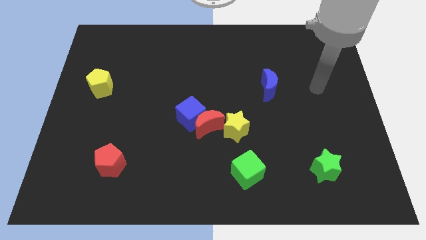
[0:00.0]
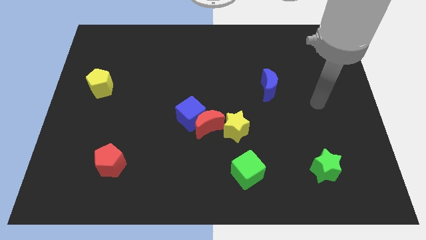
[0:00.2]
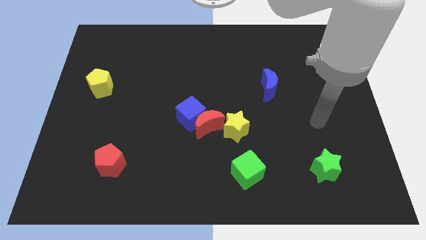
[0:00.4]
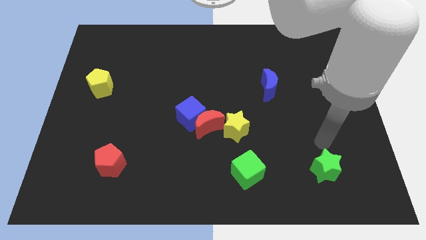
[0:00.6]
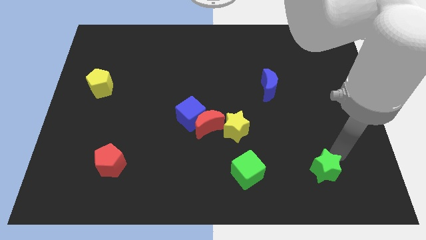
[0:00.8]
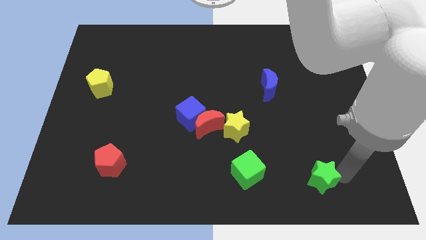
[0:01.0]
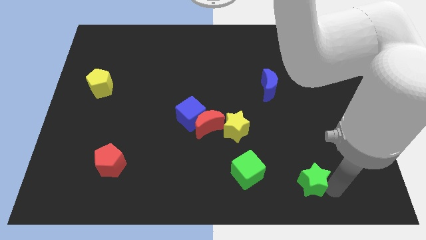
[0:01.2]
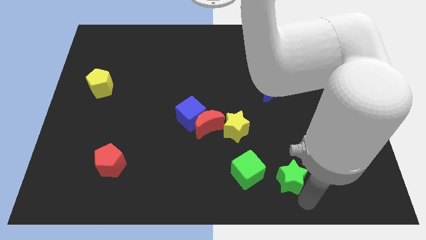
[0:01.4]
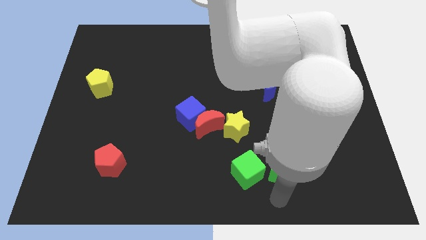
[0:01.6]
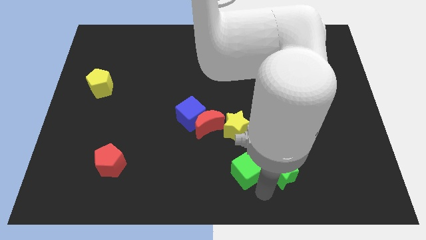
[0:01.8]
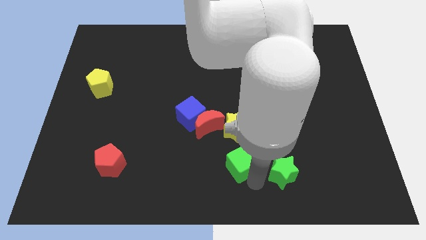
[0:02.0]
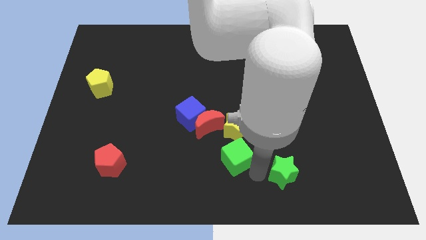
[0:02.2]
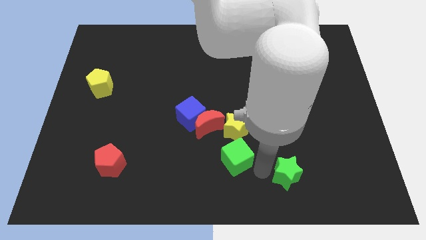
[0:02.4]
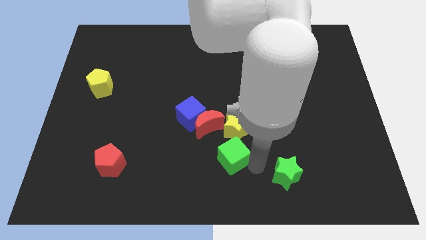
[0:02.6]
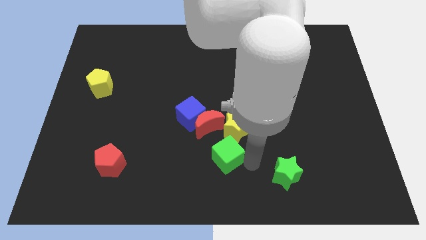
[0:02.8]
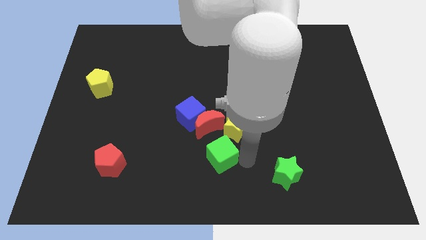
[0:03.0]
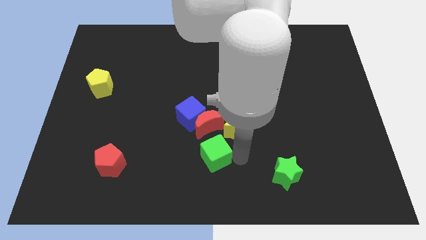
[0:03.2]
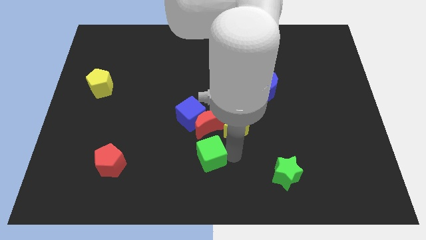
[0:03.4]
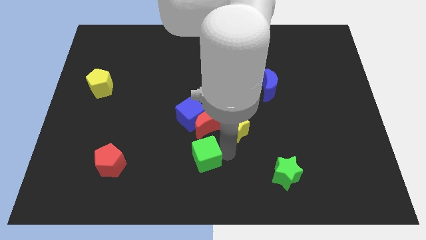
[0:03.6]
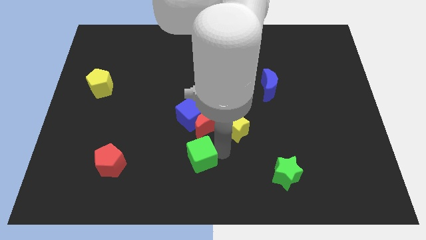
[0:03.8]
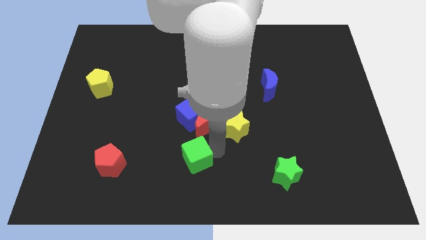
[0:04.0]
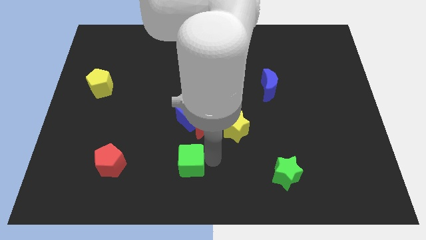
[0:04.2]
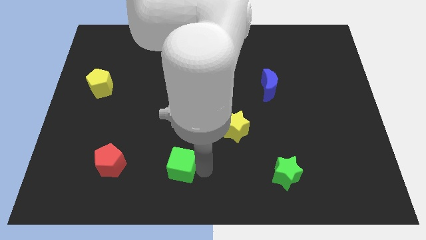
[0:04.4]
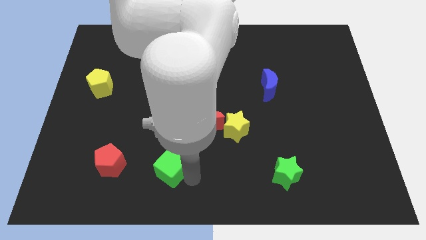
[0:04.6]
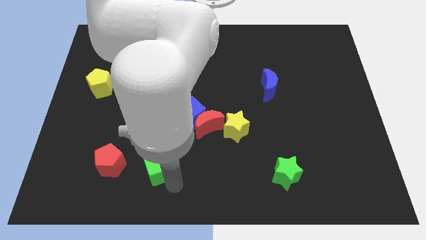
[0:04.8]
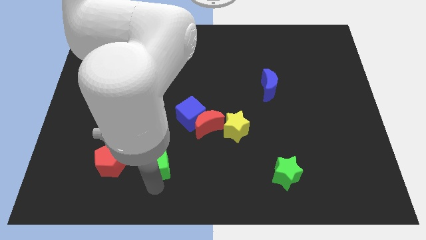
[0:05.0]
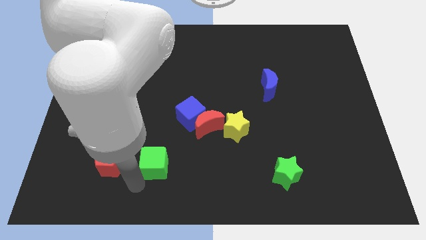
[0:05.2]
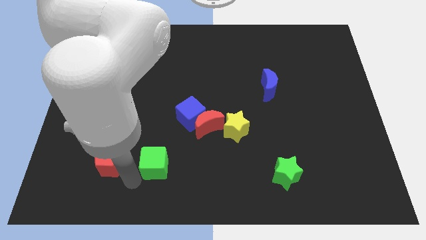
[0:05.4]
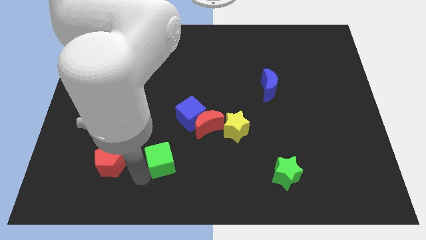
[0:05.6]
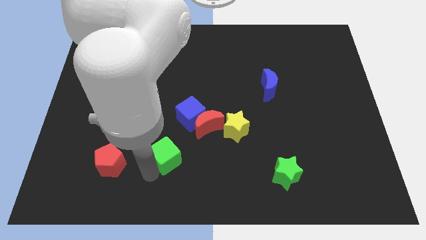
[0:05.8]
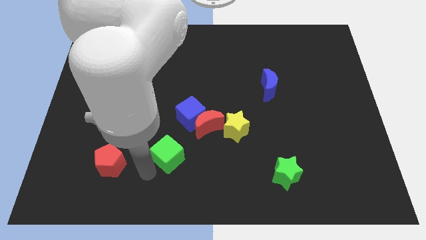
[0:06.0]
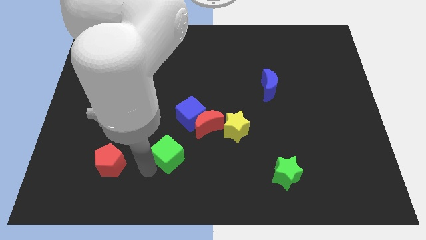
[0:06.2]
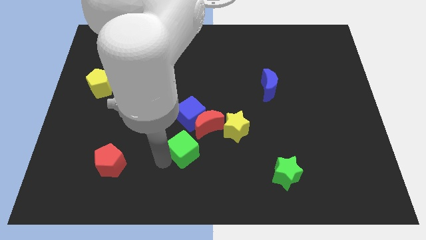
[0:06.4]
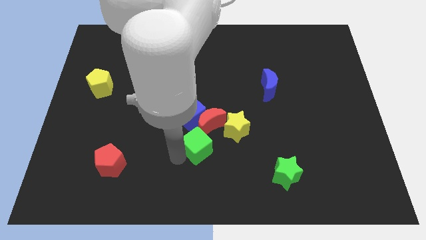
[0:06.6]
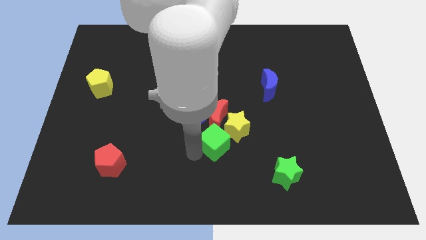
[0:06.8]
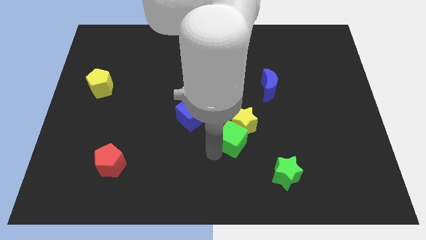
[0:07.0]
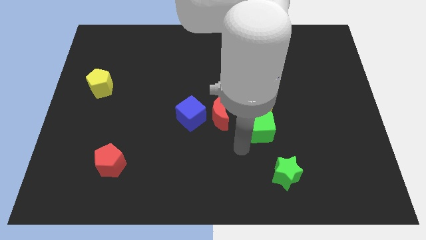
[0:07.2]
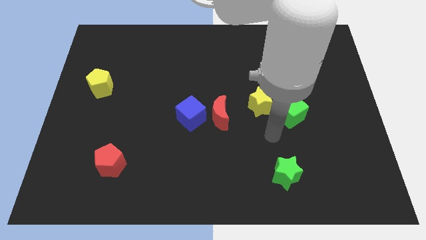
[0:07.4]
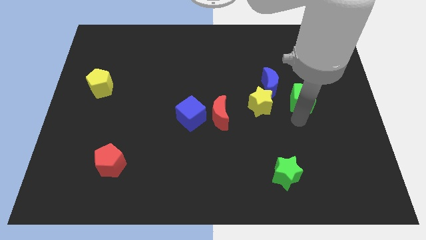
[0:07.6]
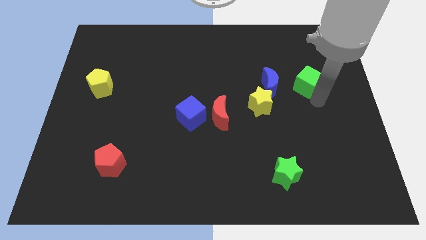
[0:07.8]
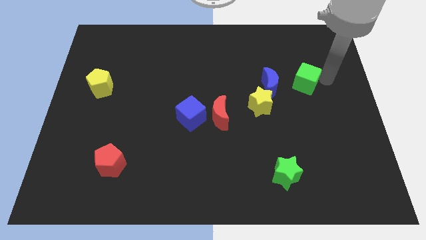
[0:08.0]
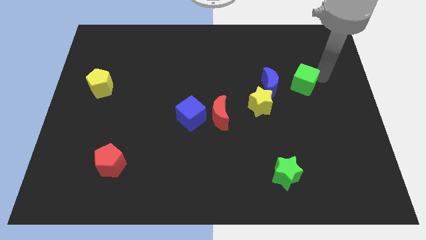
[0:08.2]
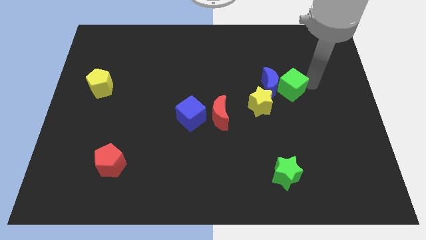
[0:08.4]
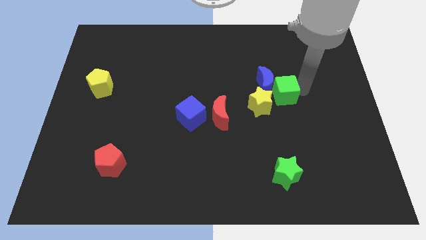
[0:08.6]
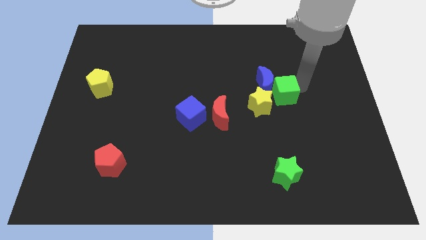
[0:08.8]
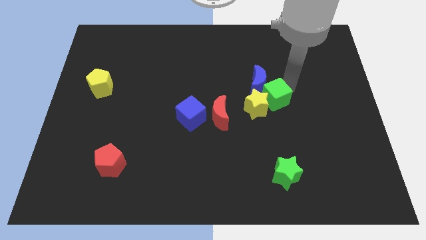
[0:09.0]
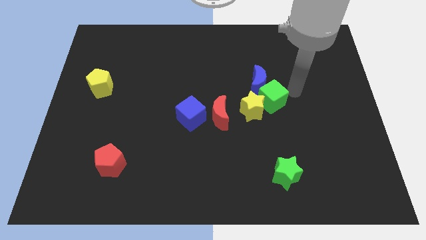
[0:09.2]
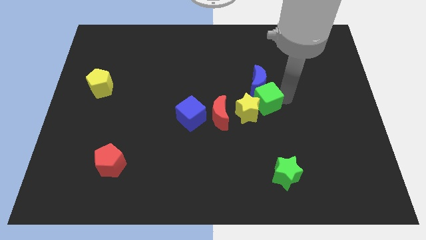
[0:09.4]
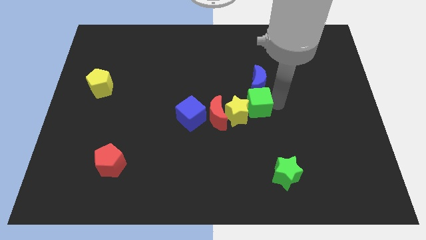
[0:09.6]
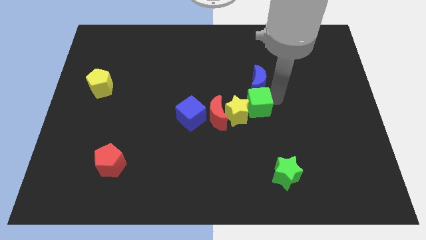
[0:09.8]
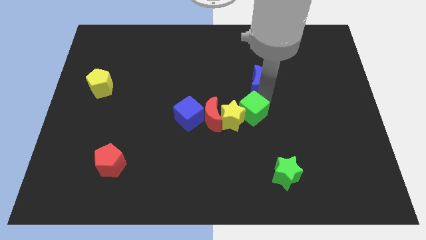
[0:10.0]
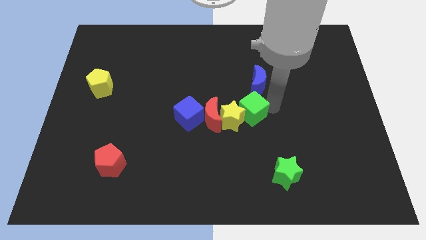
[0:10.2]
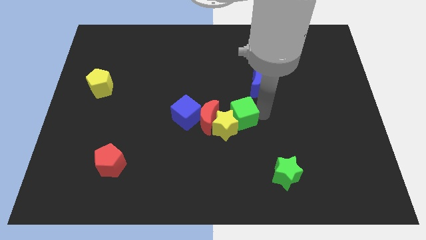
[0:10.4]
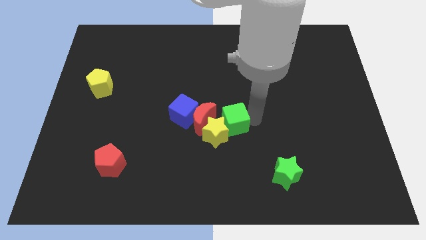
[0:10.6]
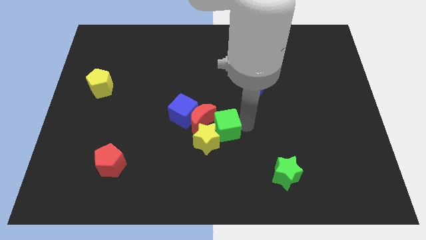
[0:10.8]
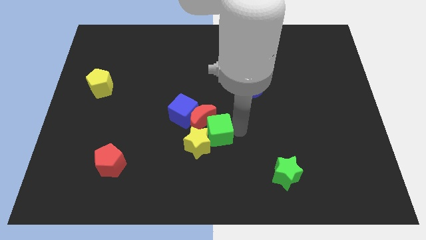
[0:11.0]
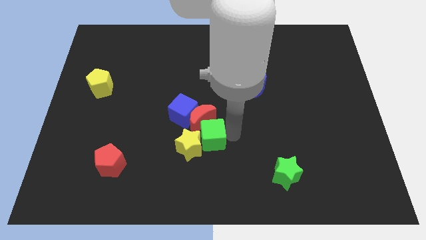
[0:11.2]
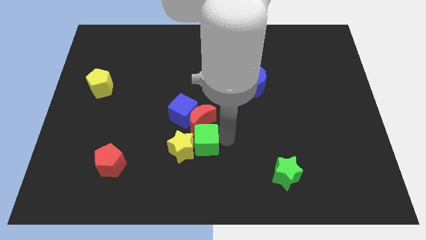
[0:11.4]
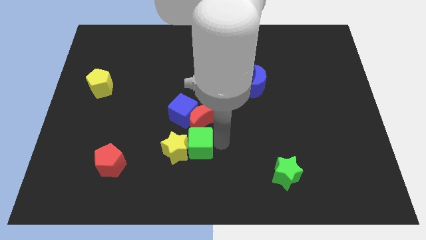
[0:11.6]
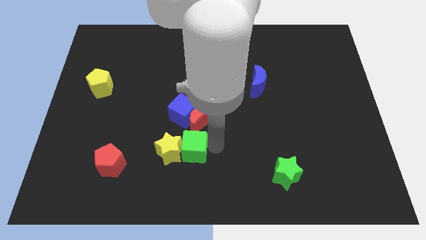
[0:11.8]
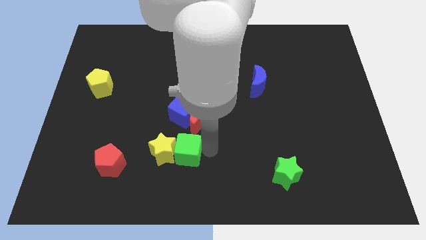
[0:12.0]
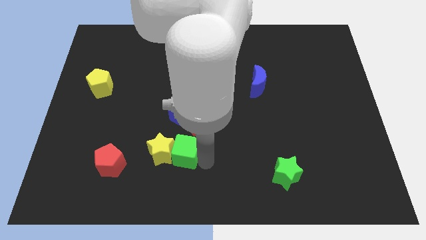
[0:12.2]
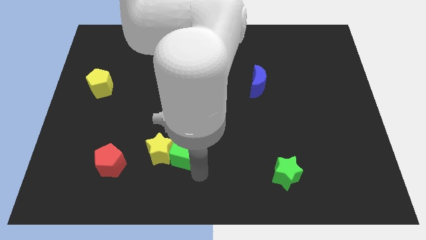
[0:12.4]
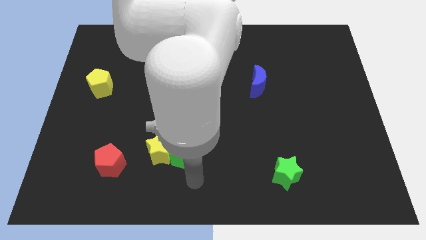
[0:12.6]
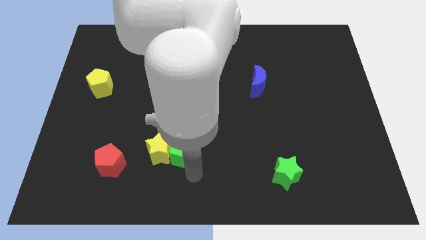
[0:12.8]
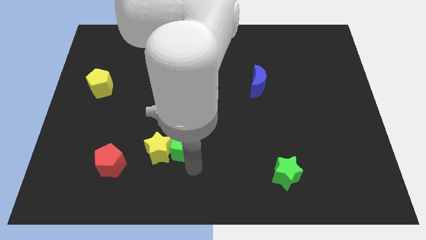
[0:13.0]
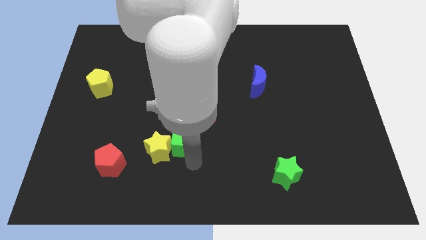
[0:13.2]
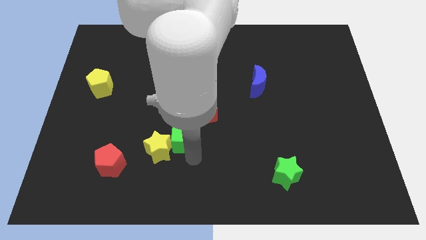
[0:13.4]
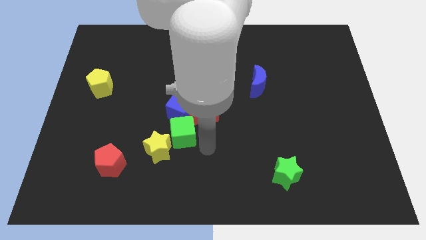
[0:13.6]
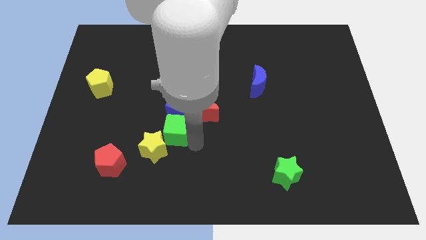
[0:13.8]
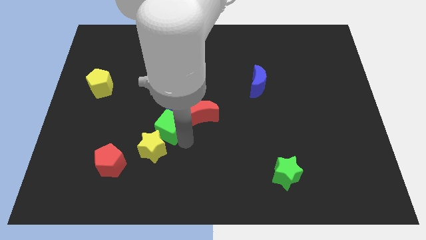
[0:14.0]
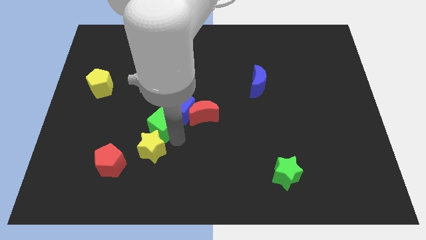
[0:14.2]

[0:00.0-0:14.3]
slide the green cube just left of the blue cube

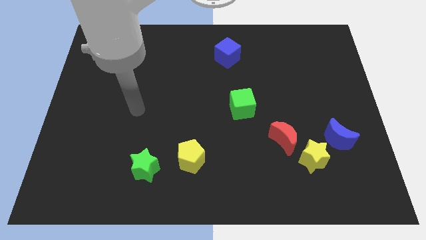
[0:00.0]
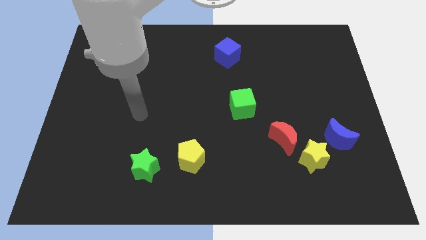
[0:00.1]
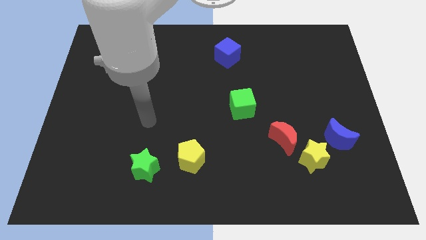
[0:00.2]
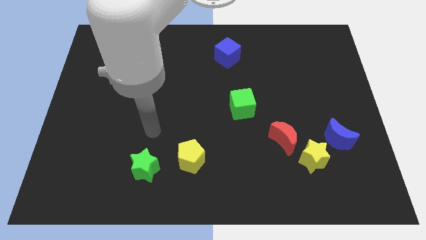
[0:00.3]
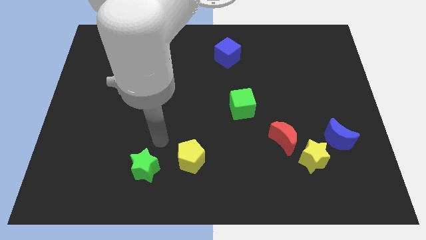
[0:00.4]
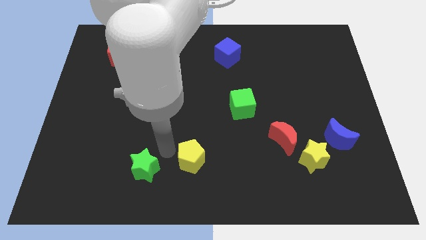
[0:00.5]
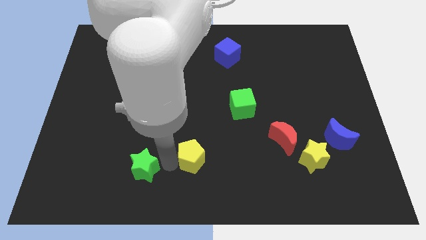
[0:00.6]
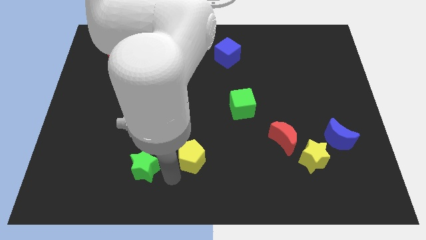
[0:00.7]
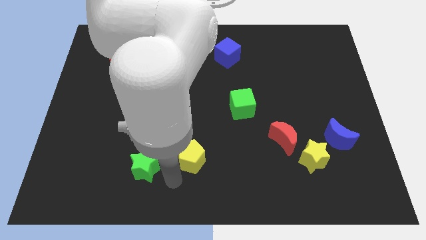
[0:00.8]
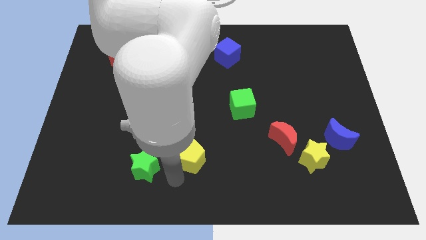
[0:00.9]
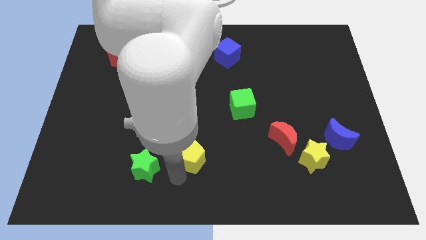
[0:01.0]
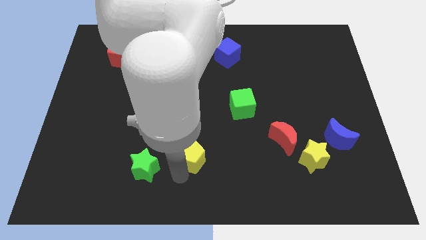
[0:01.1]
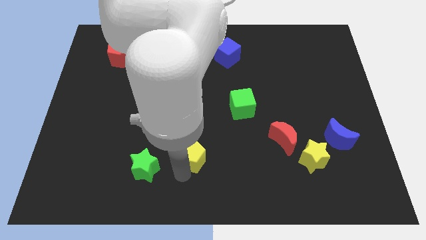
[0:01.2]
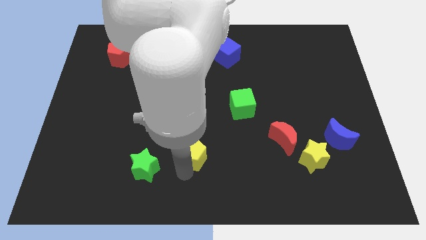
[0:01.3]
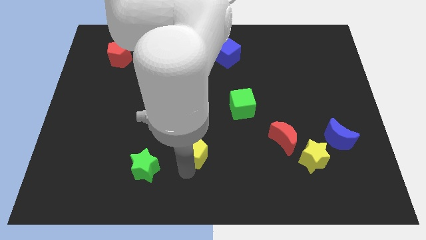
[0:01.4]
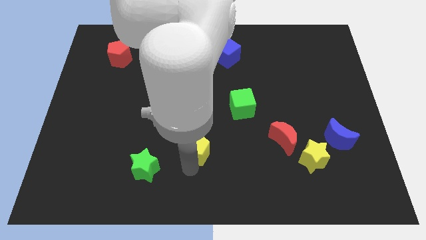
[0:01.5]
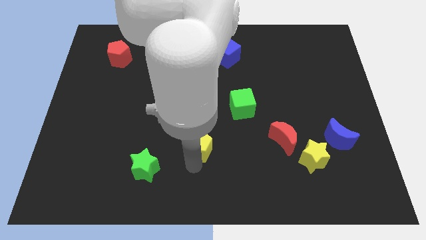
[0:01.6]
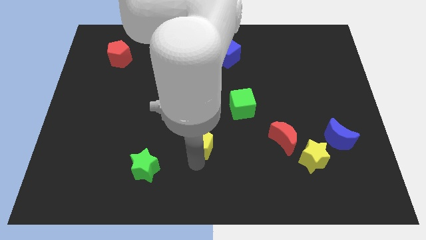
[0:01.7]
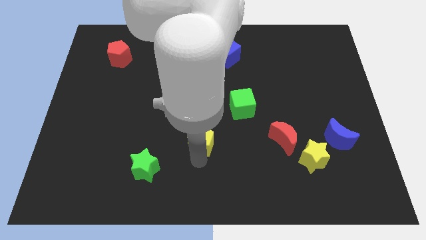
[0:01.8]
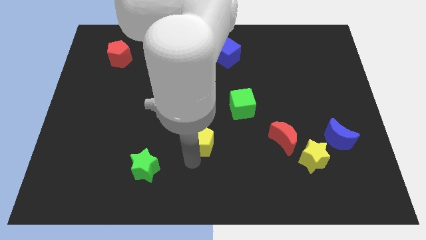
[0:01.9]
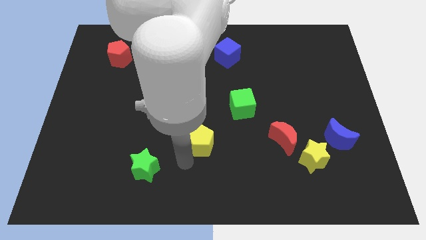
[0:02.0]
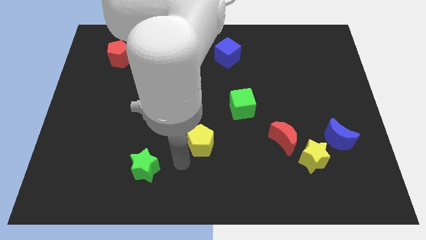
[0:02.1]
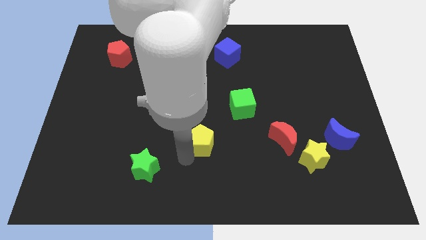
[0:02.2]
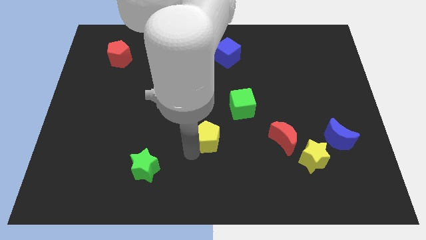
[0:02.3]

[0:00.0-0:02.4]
push the yellow pentagon to the bottom left of the green cube
